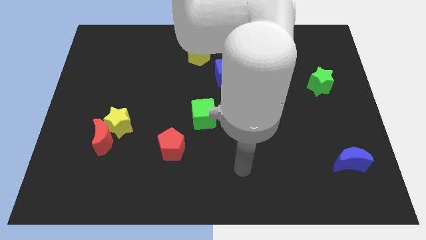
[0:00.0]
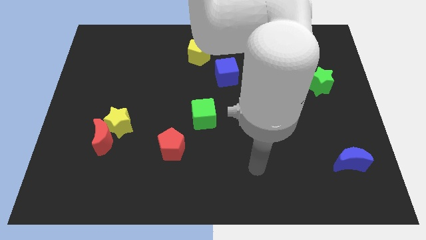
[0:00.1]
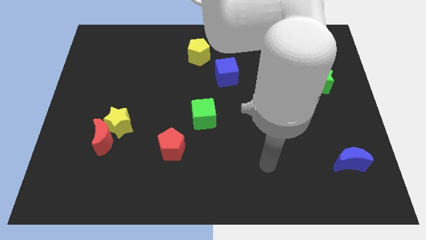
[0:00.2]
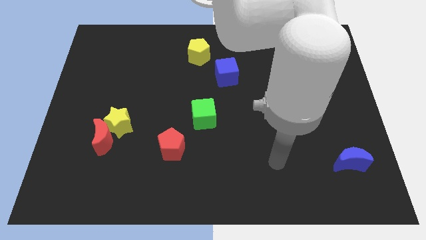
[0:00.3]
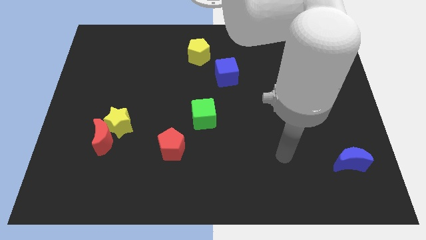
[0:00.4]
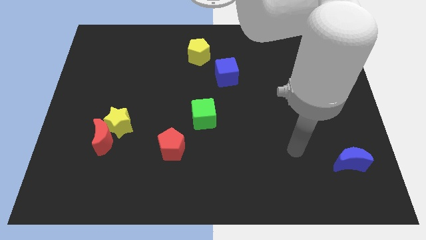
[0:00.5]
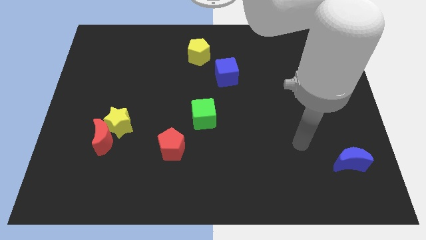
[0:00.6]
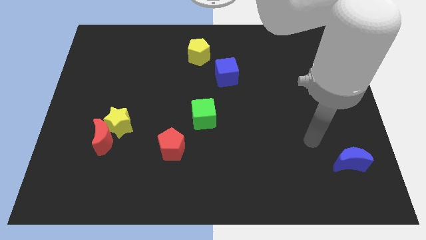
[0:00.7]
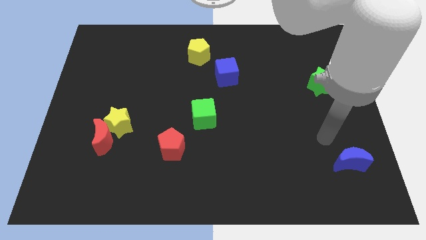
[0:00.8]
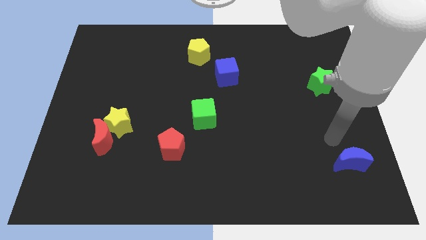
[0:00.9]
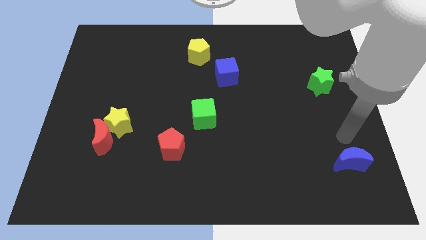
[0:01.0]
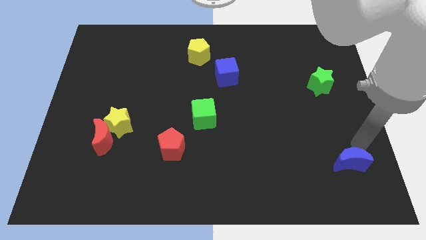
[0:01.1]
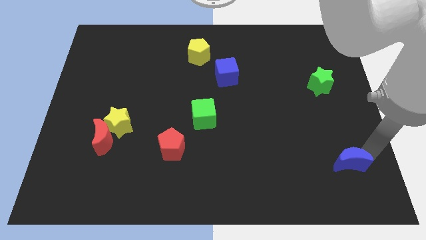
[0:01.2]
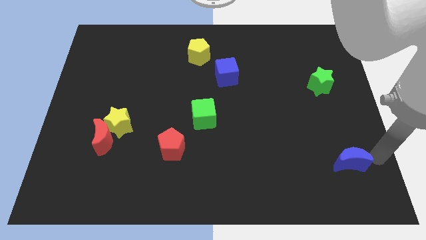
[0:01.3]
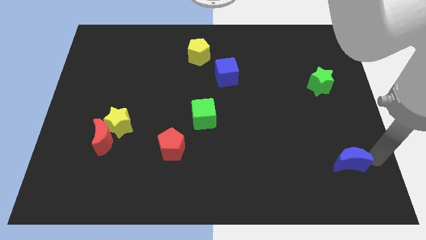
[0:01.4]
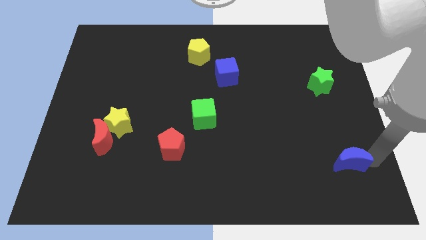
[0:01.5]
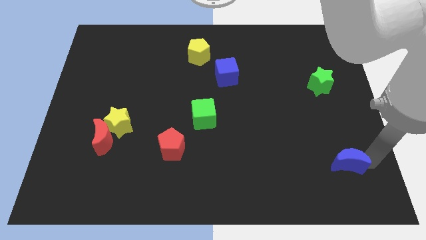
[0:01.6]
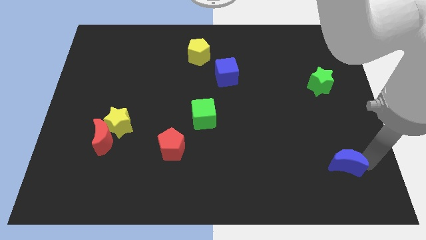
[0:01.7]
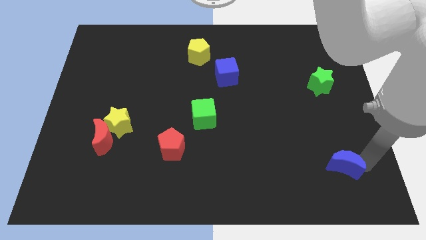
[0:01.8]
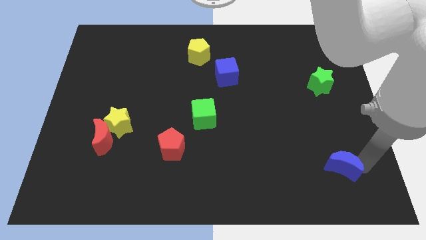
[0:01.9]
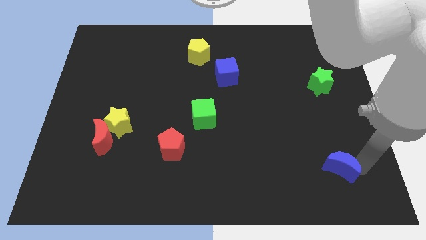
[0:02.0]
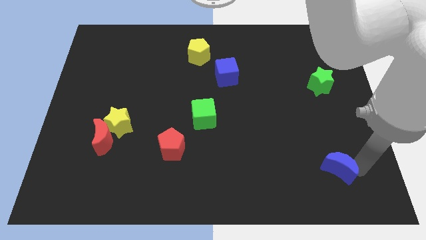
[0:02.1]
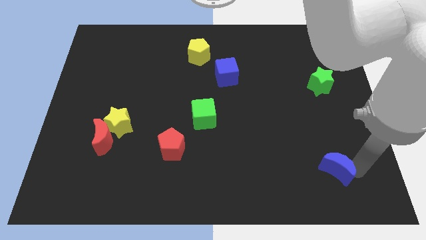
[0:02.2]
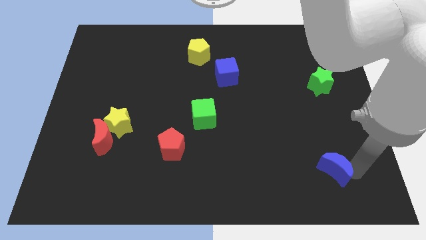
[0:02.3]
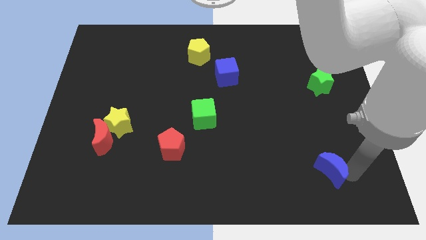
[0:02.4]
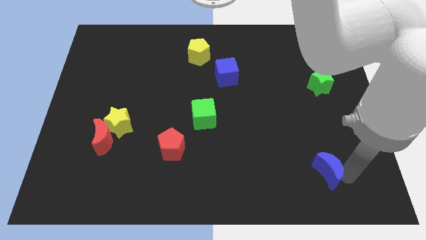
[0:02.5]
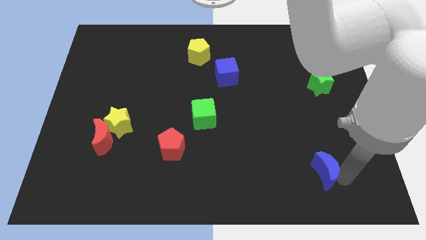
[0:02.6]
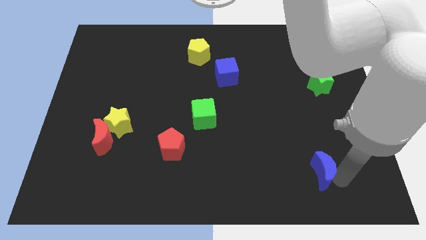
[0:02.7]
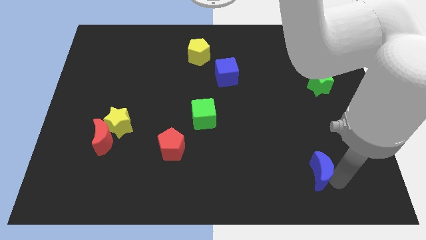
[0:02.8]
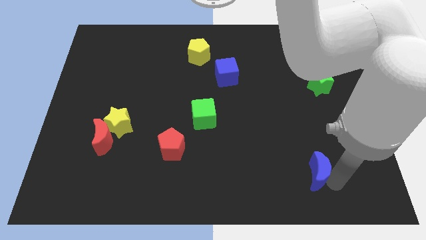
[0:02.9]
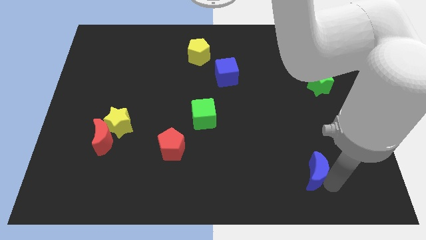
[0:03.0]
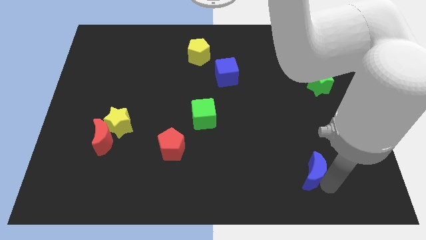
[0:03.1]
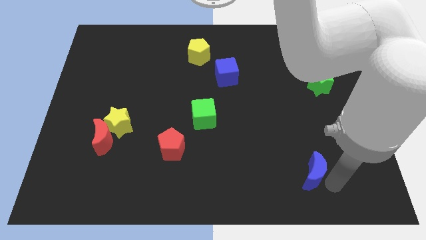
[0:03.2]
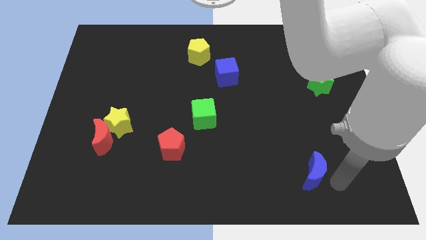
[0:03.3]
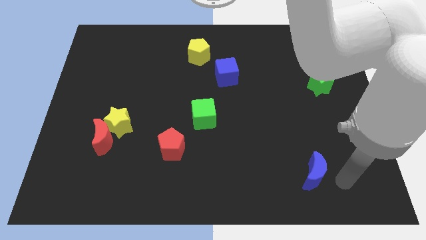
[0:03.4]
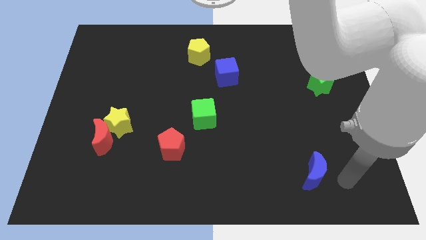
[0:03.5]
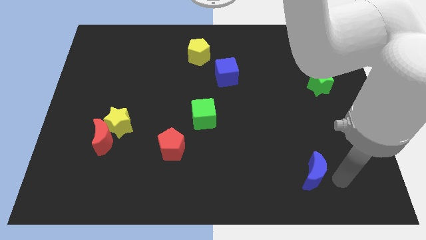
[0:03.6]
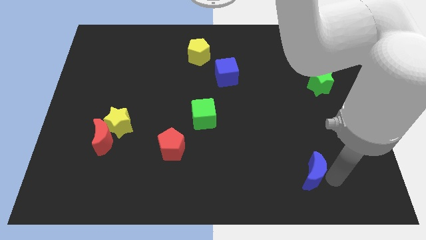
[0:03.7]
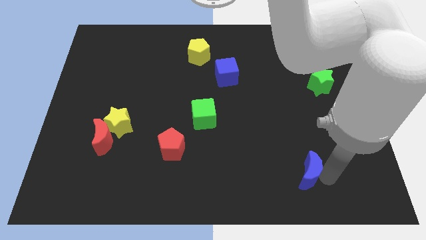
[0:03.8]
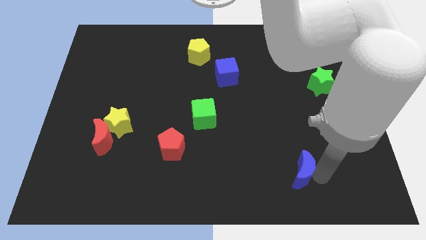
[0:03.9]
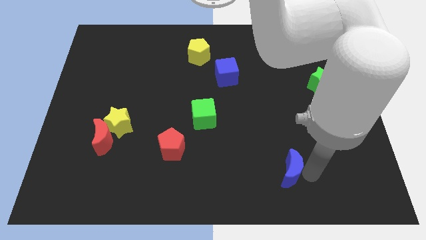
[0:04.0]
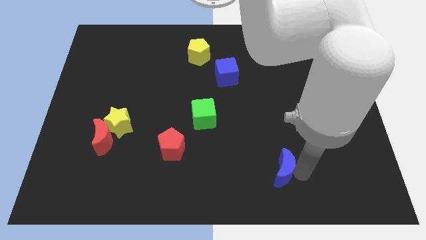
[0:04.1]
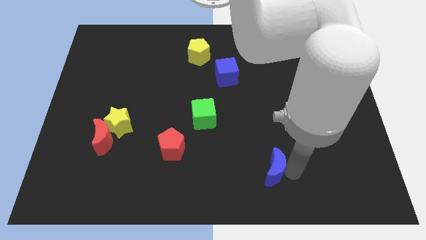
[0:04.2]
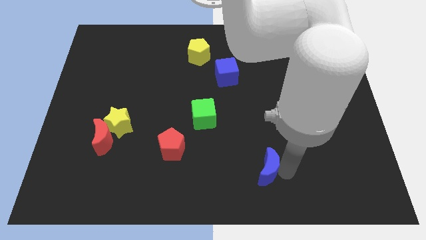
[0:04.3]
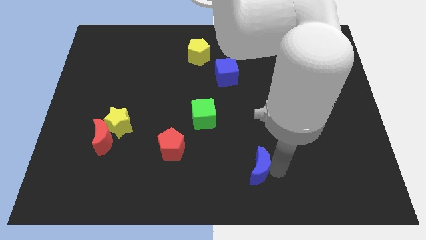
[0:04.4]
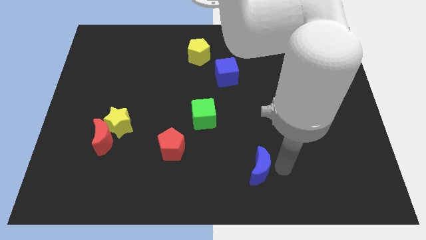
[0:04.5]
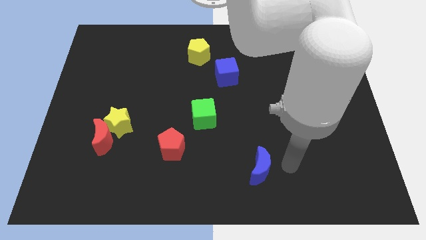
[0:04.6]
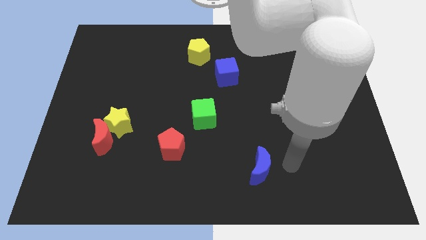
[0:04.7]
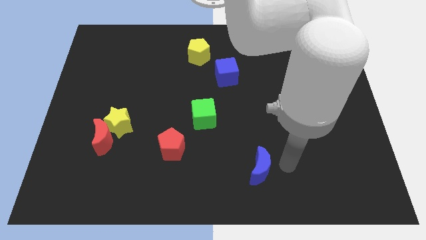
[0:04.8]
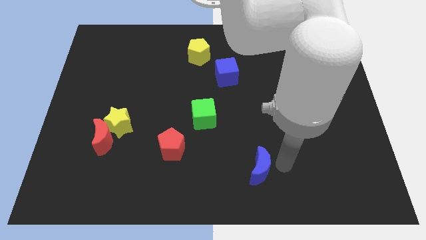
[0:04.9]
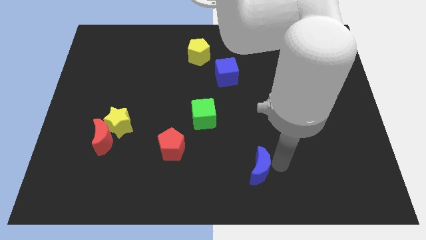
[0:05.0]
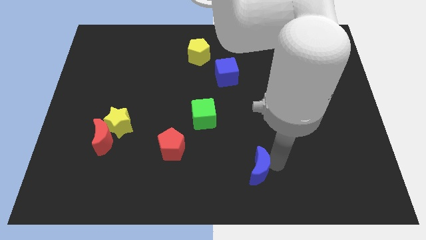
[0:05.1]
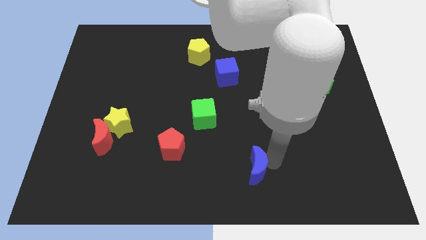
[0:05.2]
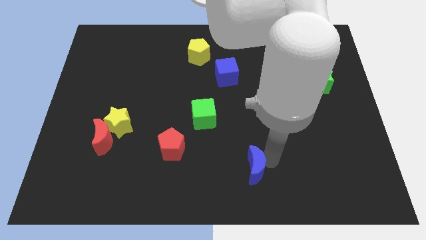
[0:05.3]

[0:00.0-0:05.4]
move the blue moon left

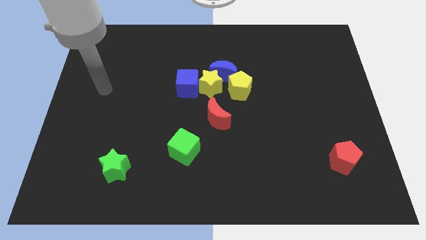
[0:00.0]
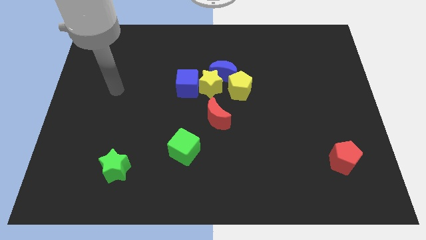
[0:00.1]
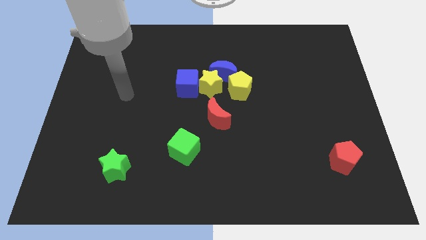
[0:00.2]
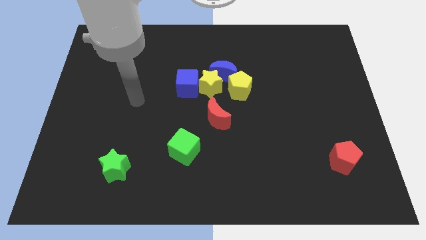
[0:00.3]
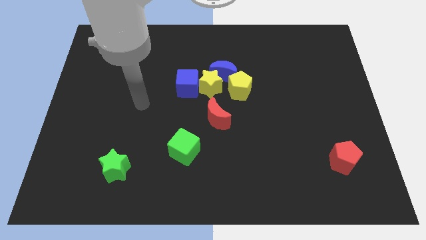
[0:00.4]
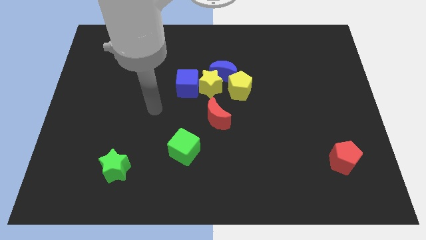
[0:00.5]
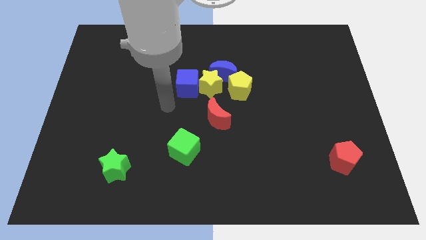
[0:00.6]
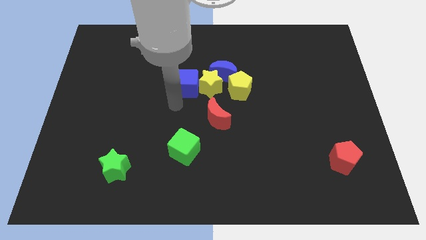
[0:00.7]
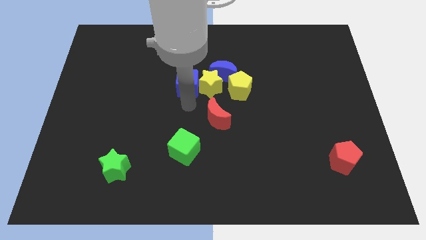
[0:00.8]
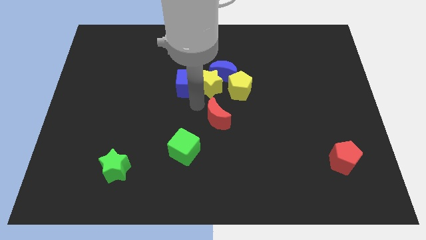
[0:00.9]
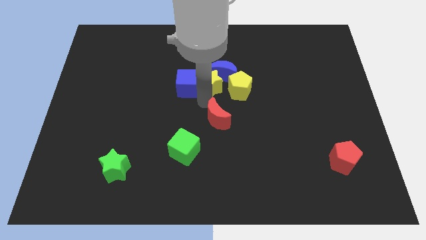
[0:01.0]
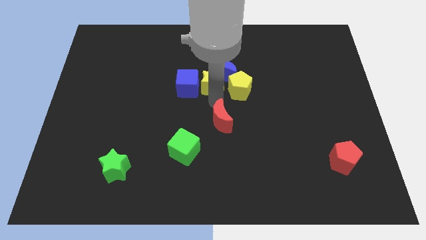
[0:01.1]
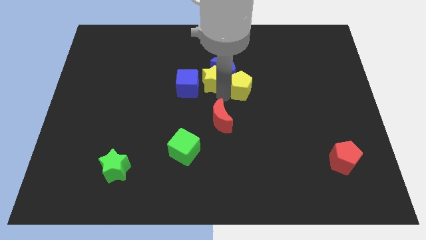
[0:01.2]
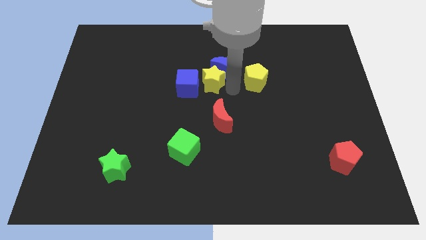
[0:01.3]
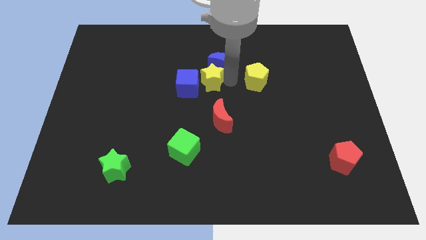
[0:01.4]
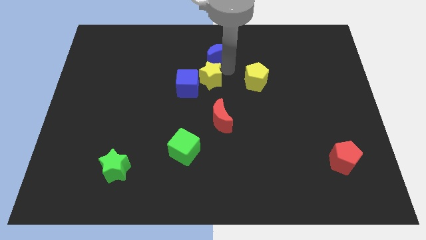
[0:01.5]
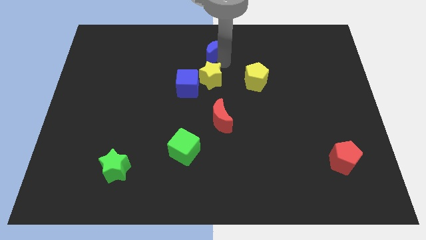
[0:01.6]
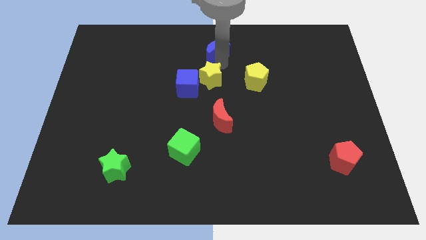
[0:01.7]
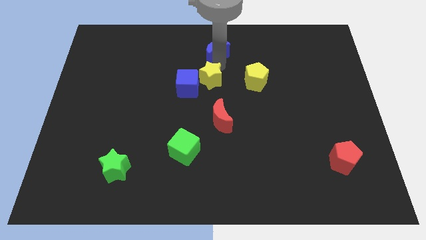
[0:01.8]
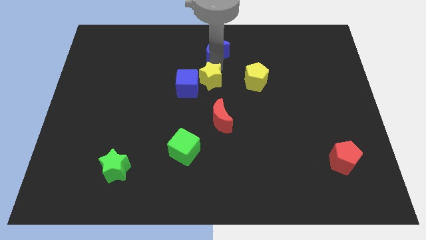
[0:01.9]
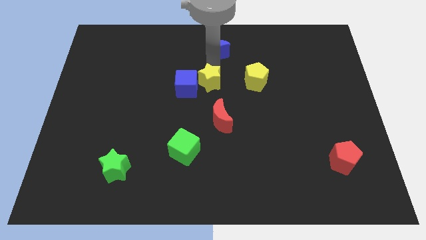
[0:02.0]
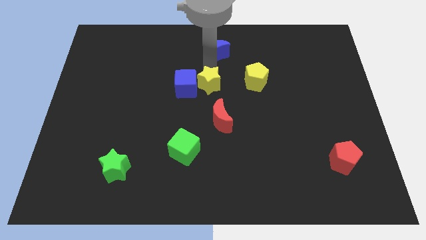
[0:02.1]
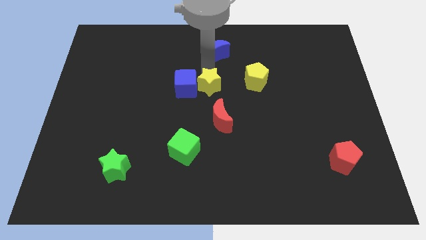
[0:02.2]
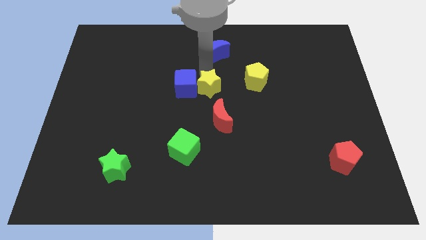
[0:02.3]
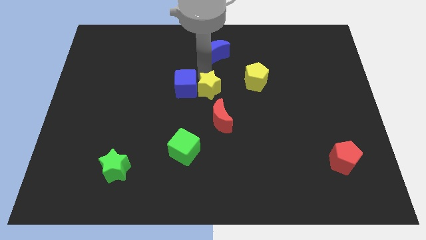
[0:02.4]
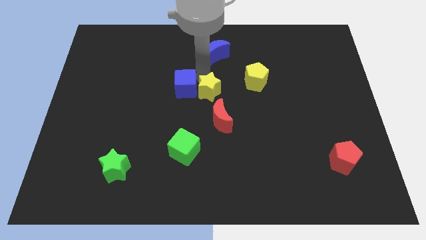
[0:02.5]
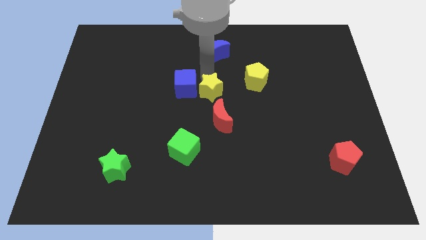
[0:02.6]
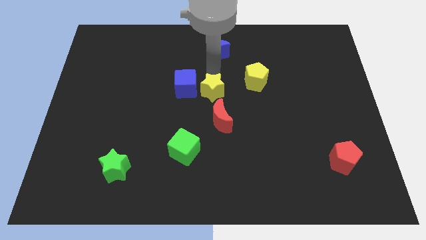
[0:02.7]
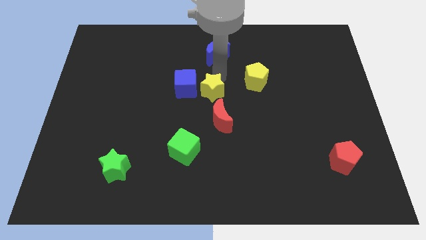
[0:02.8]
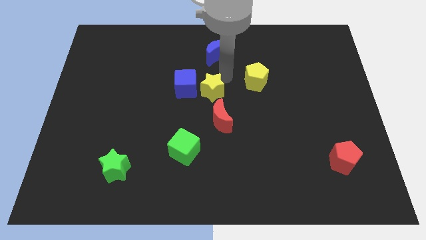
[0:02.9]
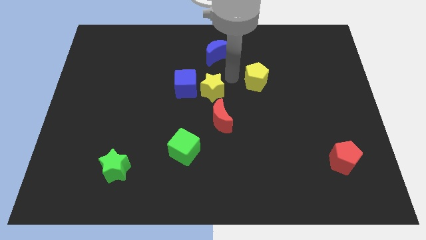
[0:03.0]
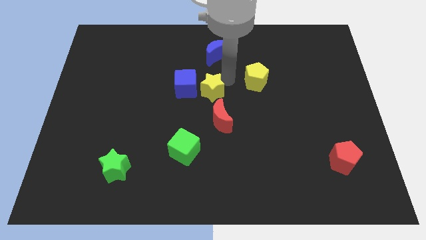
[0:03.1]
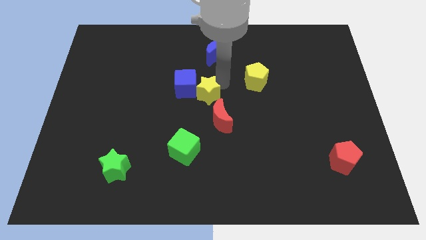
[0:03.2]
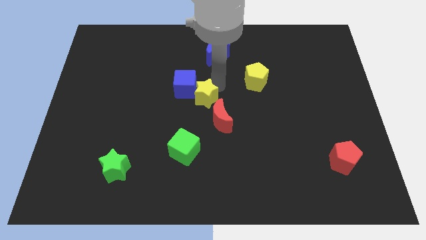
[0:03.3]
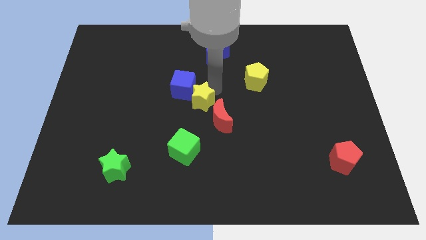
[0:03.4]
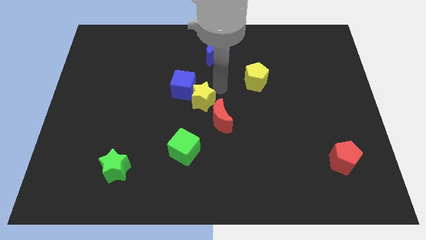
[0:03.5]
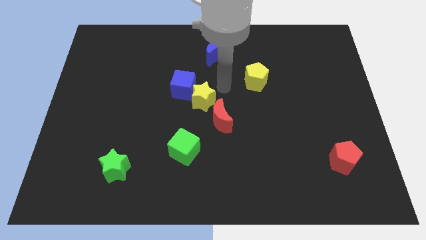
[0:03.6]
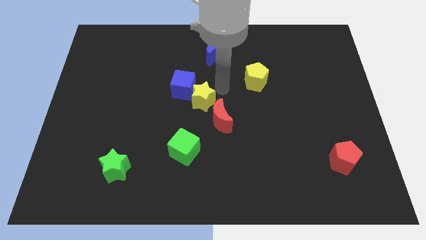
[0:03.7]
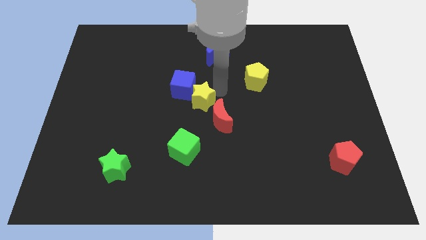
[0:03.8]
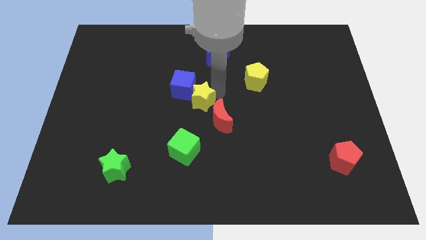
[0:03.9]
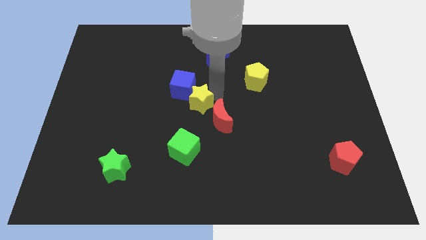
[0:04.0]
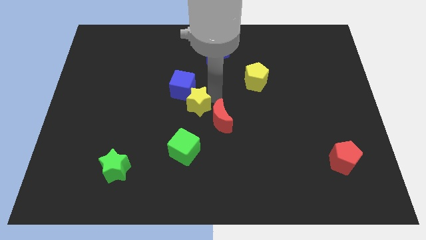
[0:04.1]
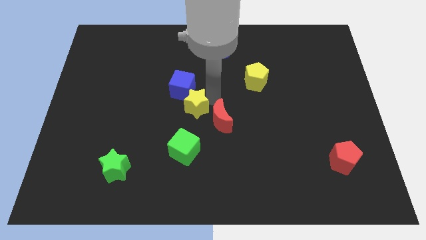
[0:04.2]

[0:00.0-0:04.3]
push the yellow star somewhat diagonally down and to the left
